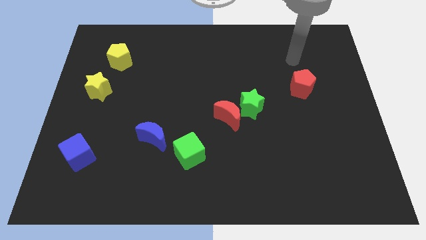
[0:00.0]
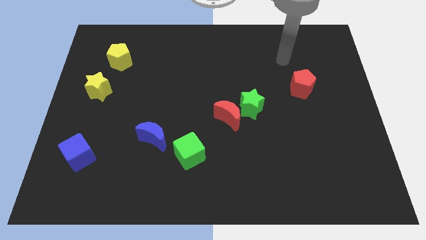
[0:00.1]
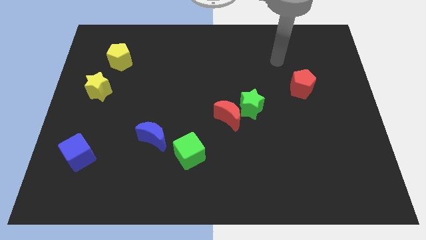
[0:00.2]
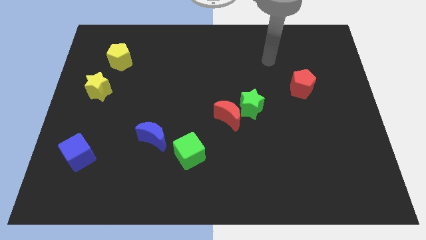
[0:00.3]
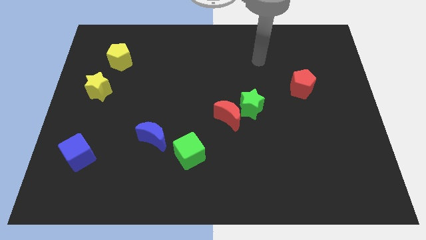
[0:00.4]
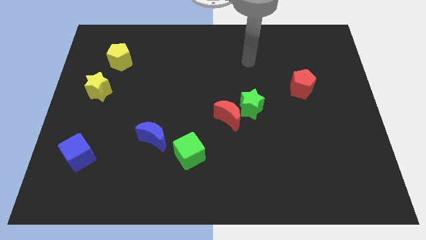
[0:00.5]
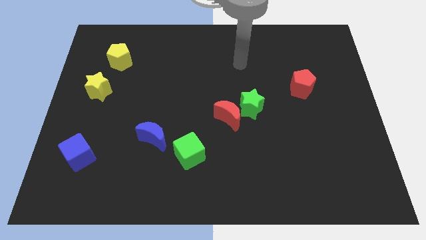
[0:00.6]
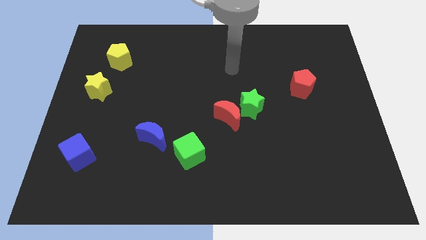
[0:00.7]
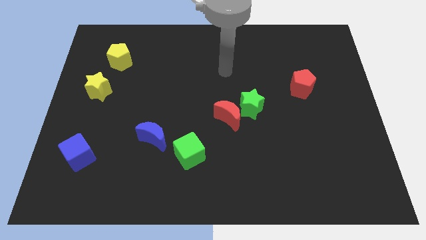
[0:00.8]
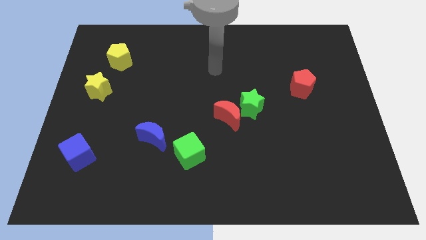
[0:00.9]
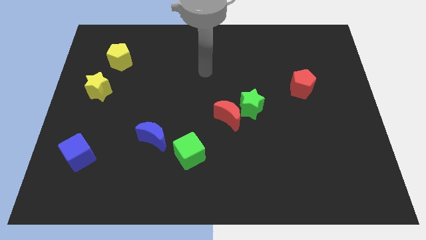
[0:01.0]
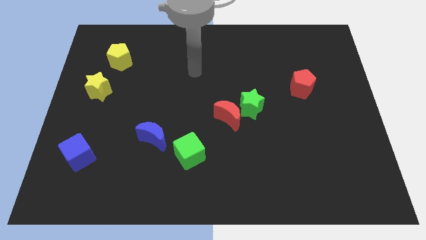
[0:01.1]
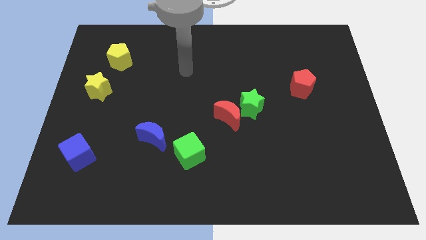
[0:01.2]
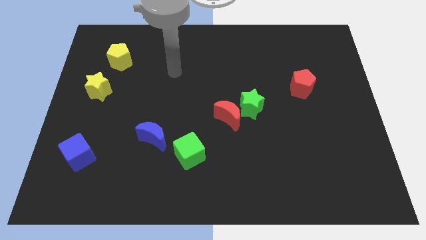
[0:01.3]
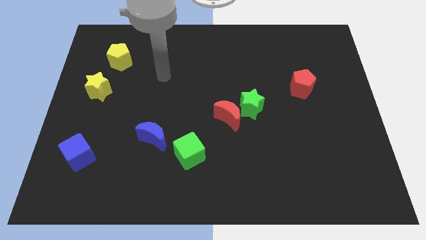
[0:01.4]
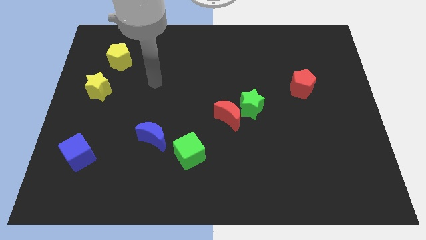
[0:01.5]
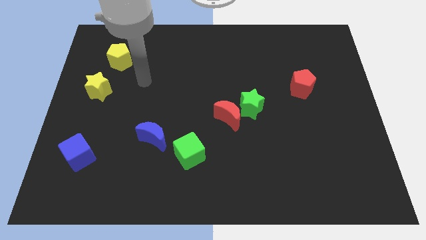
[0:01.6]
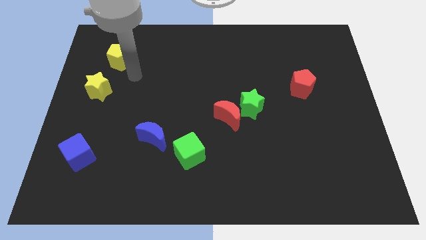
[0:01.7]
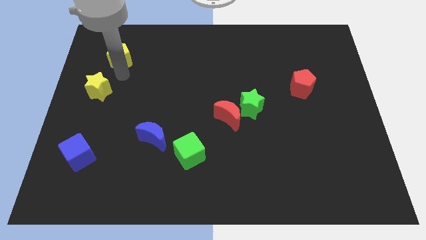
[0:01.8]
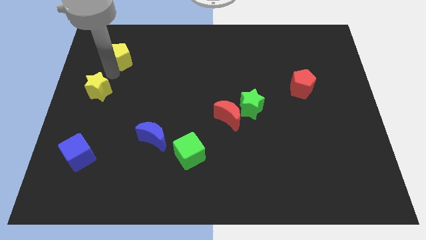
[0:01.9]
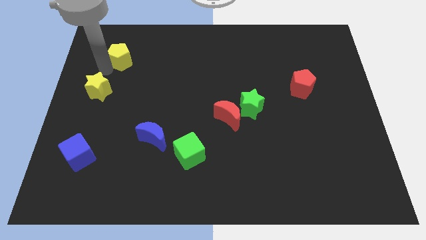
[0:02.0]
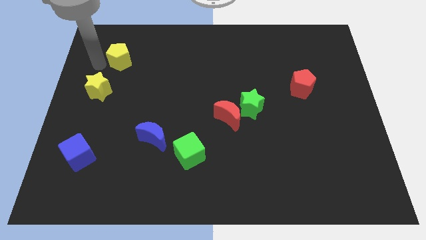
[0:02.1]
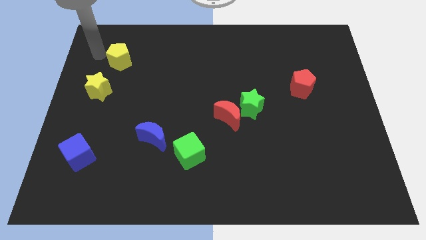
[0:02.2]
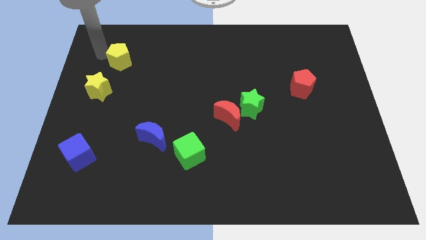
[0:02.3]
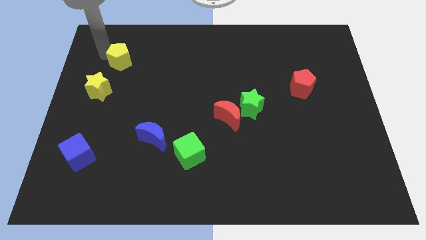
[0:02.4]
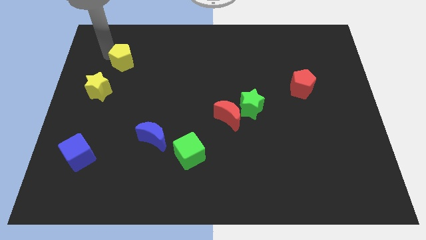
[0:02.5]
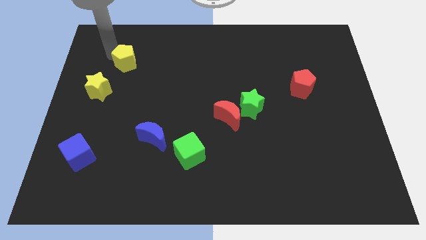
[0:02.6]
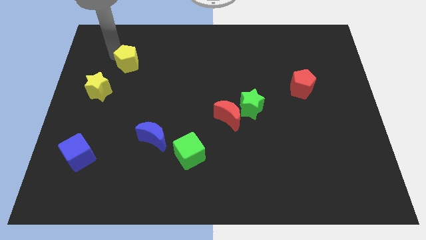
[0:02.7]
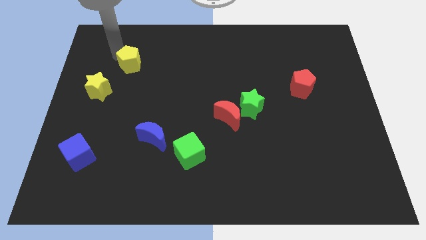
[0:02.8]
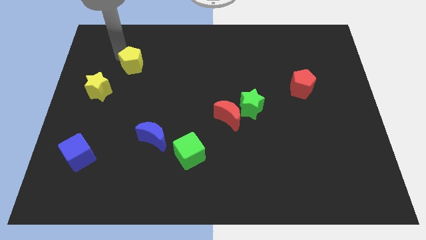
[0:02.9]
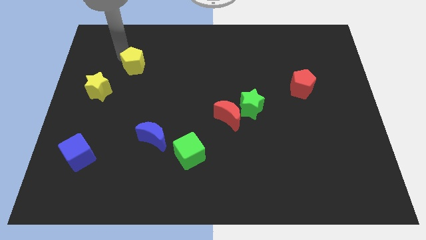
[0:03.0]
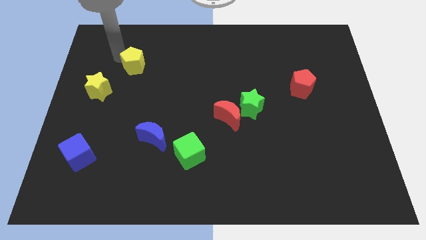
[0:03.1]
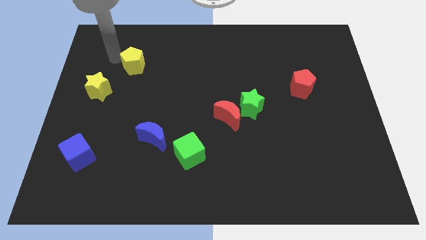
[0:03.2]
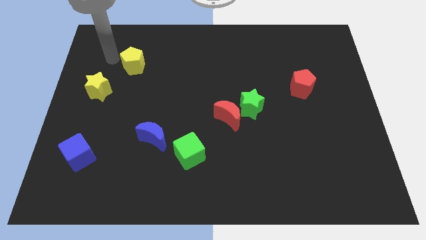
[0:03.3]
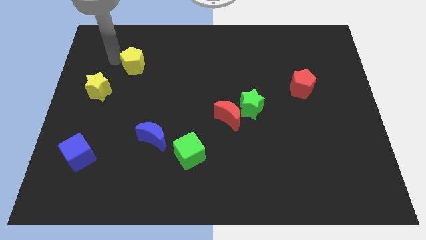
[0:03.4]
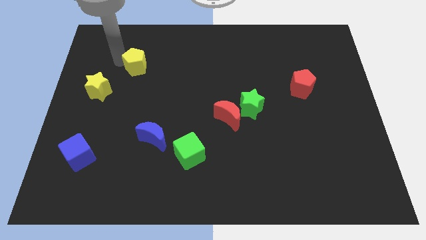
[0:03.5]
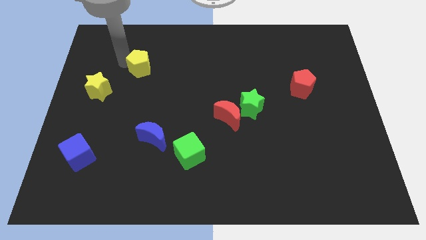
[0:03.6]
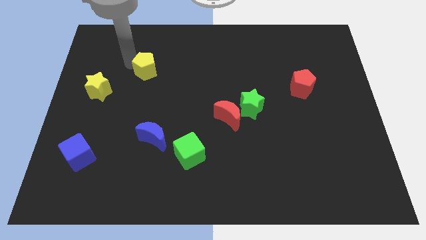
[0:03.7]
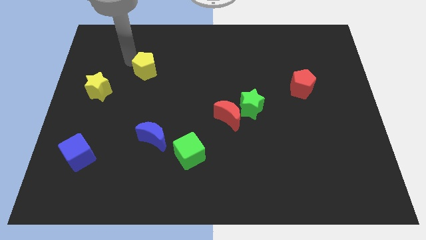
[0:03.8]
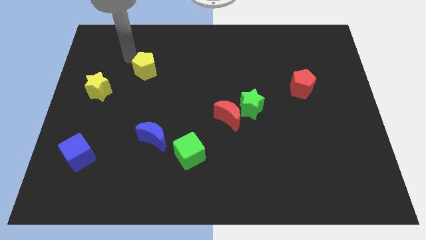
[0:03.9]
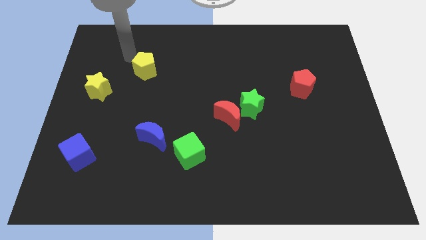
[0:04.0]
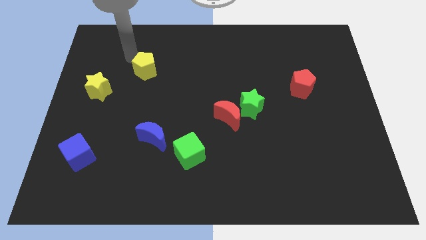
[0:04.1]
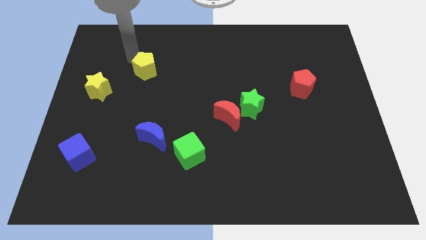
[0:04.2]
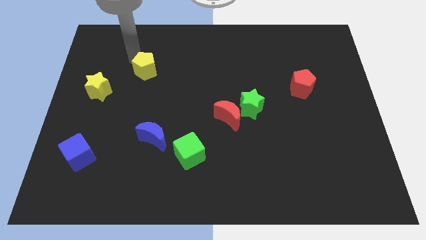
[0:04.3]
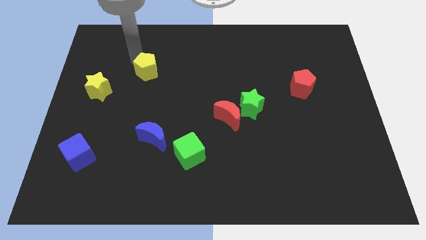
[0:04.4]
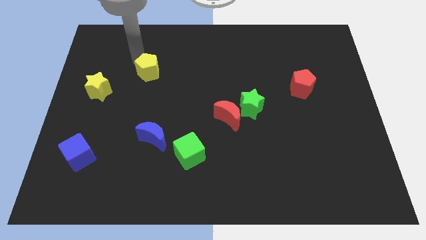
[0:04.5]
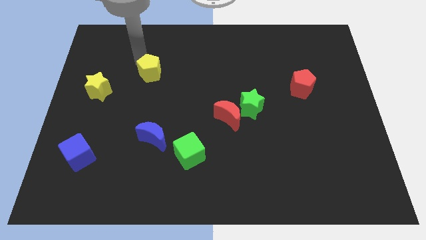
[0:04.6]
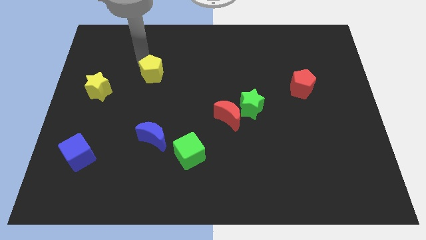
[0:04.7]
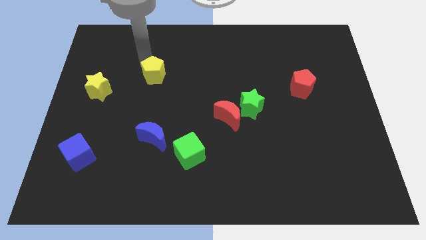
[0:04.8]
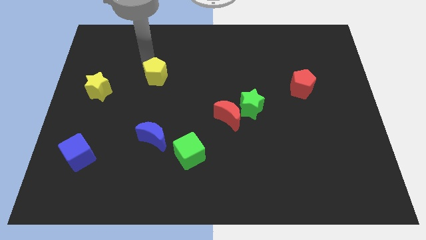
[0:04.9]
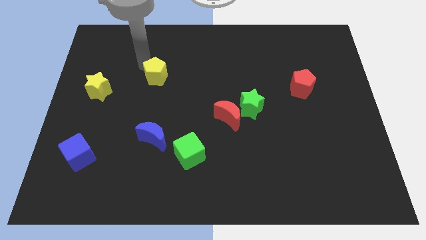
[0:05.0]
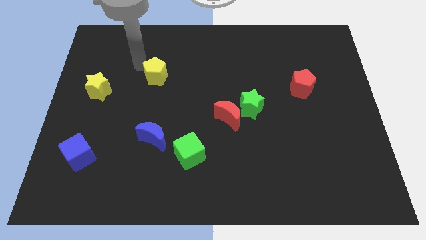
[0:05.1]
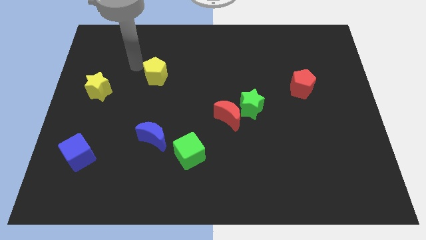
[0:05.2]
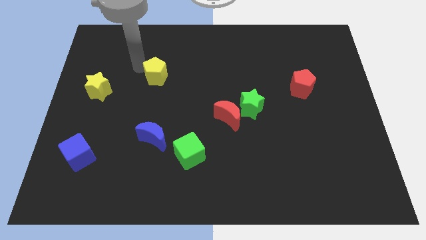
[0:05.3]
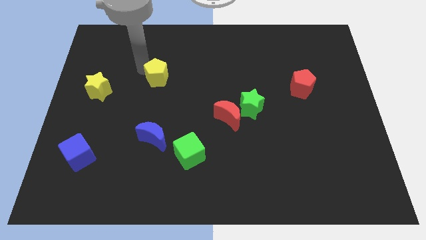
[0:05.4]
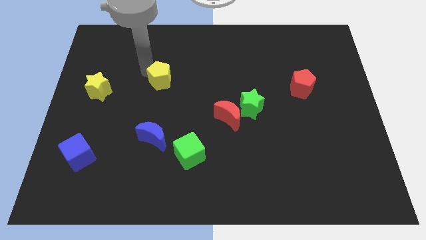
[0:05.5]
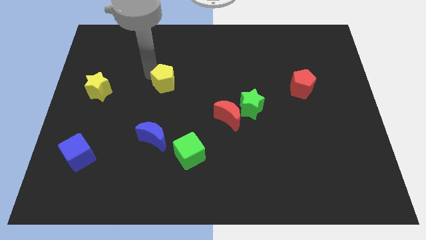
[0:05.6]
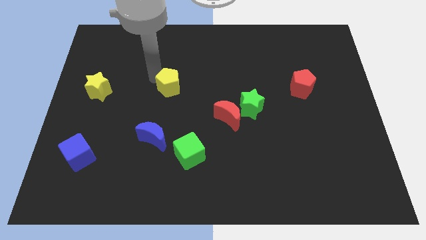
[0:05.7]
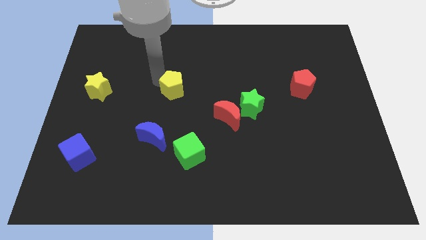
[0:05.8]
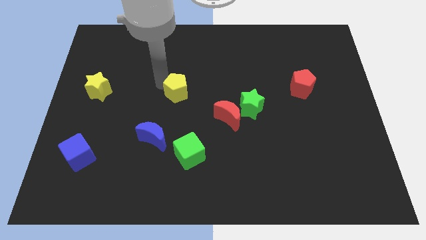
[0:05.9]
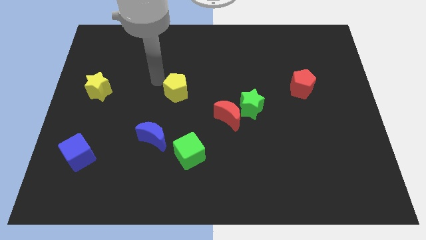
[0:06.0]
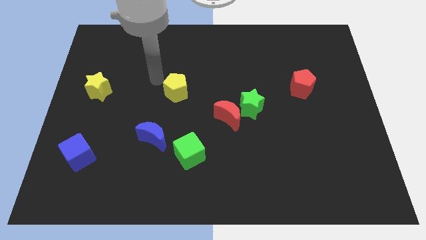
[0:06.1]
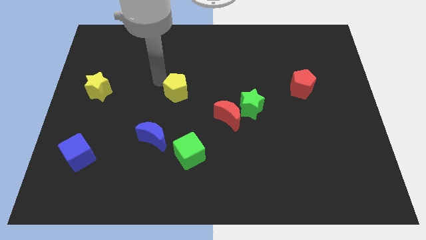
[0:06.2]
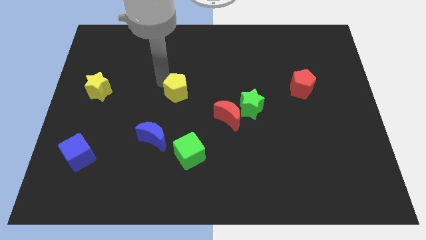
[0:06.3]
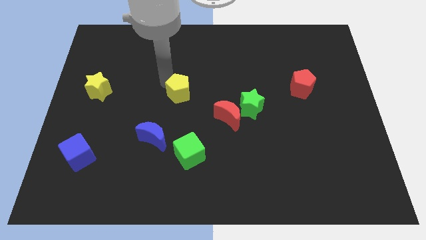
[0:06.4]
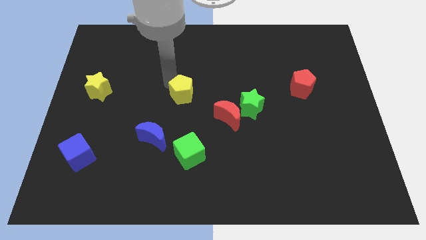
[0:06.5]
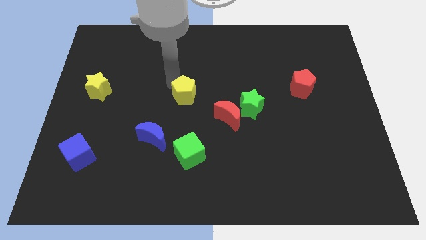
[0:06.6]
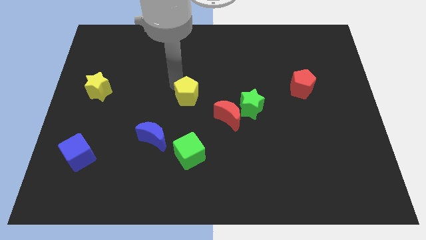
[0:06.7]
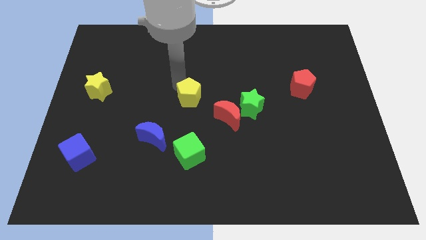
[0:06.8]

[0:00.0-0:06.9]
slide the yellow pentagon just left of the green star

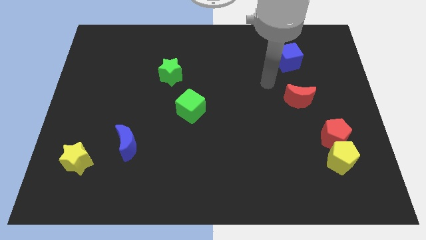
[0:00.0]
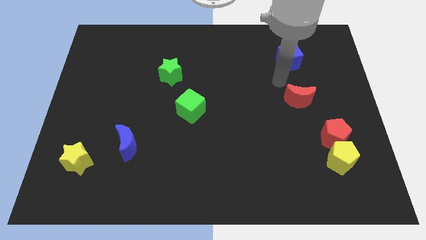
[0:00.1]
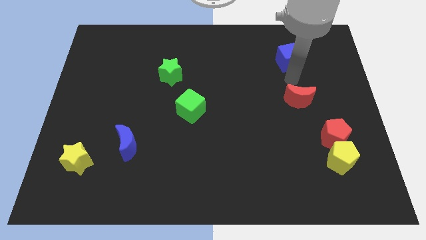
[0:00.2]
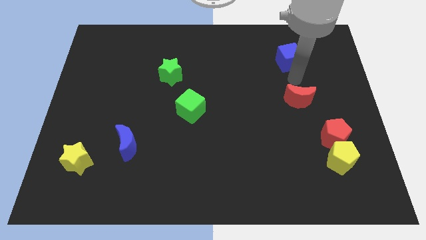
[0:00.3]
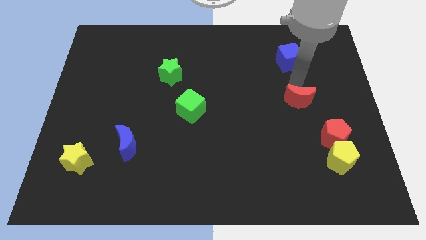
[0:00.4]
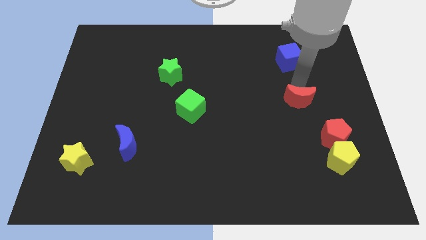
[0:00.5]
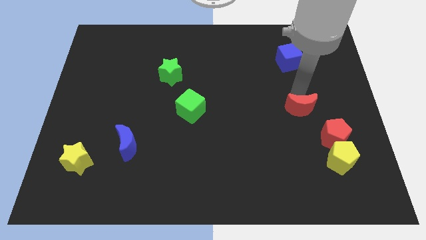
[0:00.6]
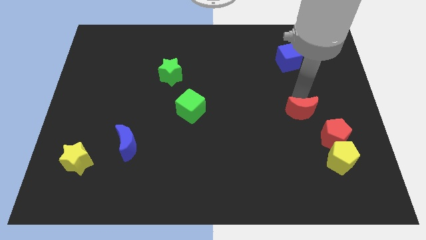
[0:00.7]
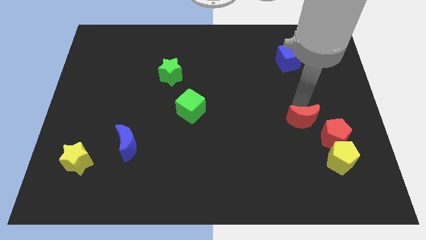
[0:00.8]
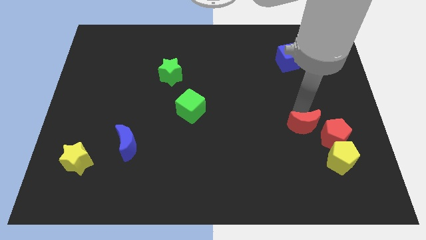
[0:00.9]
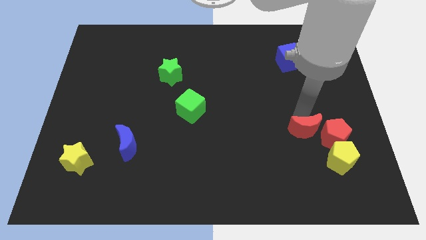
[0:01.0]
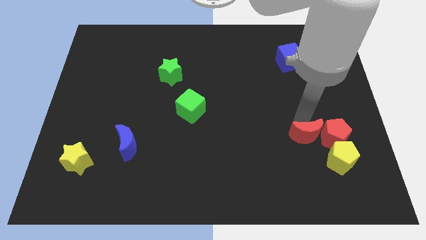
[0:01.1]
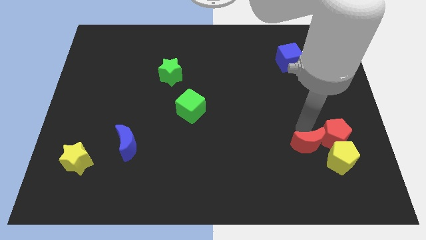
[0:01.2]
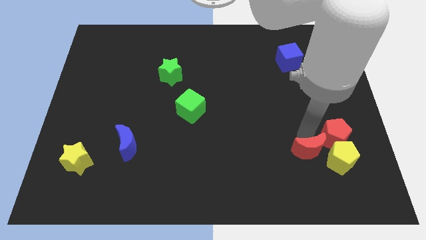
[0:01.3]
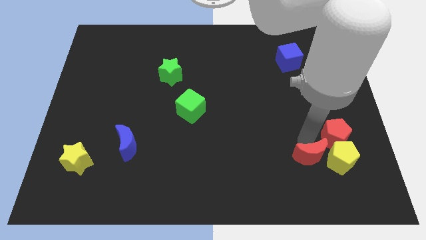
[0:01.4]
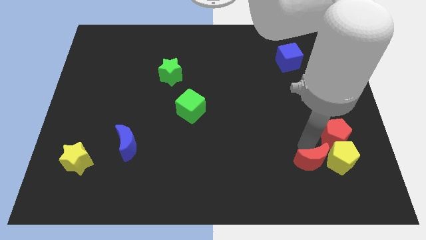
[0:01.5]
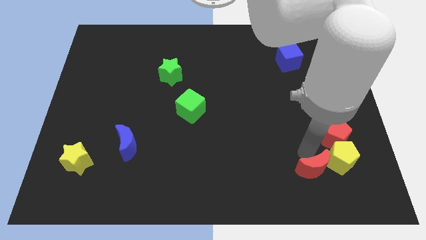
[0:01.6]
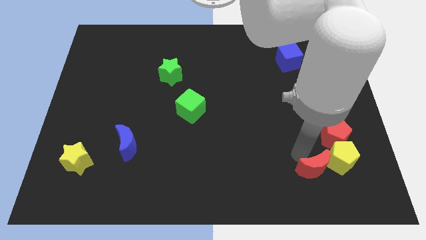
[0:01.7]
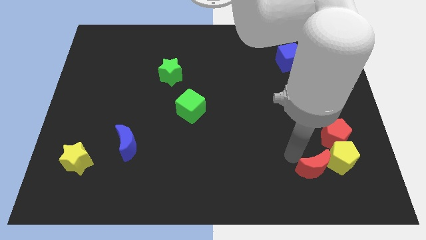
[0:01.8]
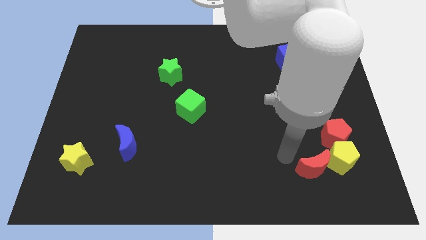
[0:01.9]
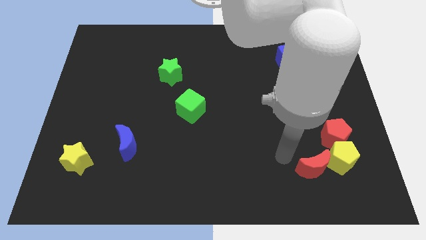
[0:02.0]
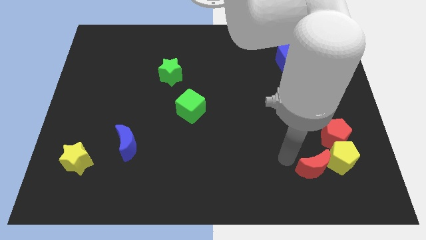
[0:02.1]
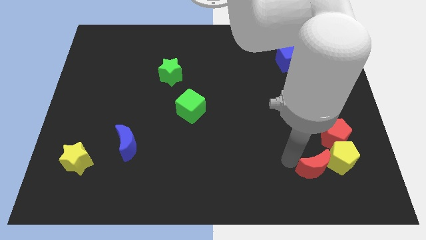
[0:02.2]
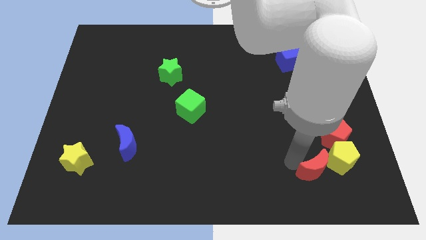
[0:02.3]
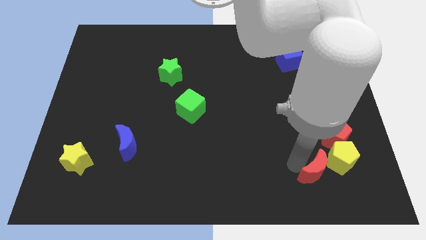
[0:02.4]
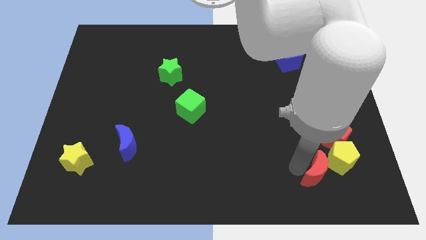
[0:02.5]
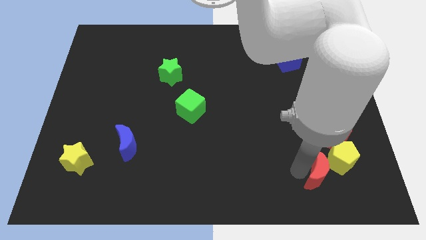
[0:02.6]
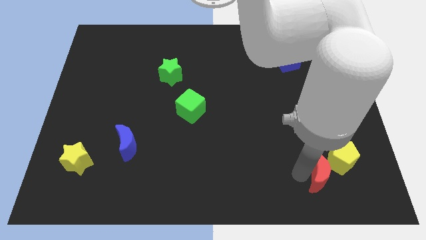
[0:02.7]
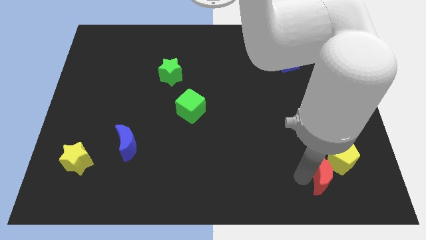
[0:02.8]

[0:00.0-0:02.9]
put the red moon to the bottom of the red pentagon
